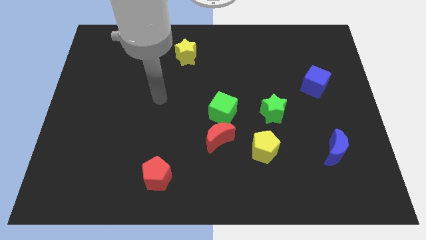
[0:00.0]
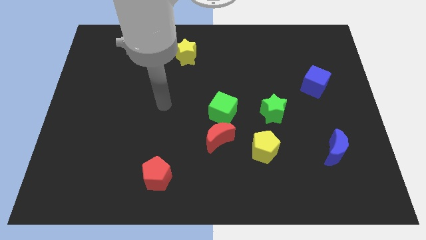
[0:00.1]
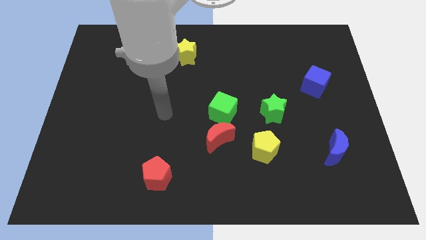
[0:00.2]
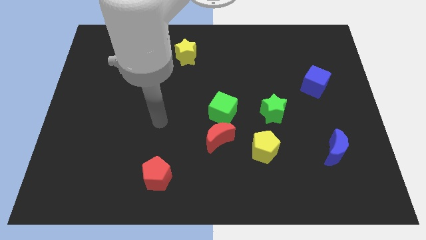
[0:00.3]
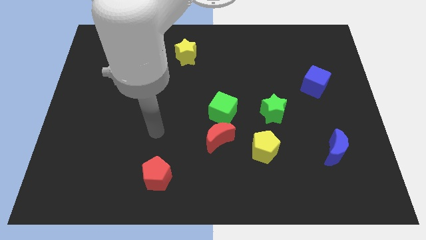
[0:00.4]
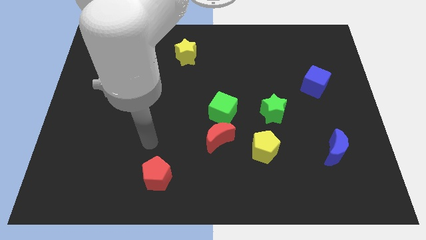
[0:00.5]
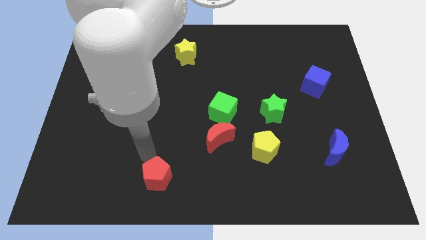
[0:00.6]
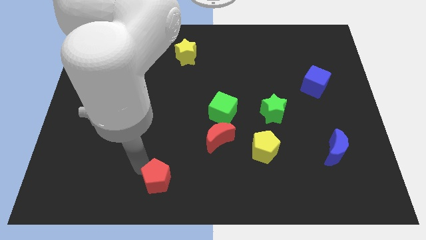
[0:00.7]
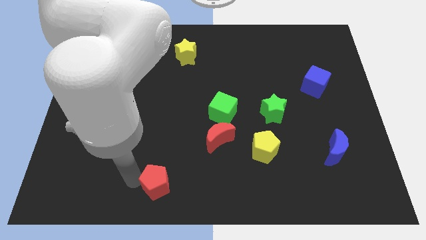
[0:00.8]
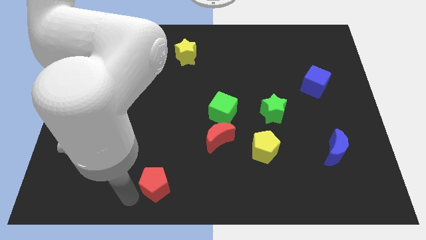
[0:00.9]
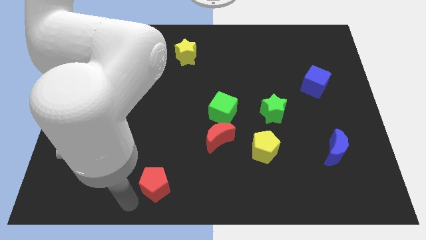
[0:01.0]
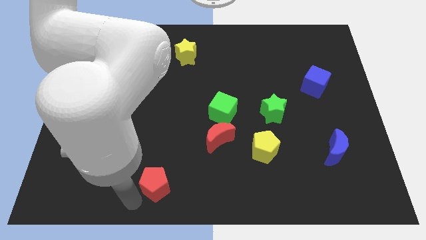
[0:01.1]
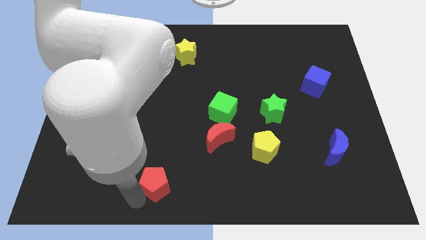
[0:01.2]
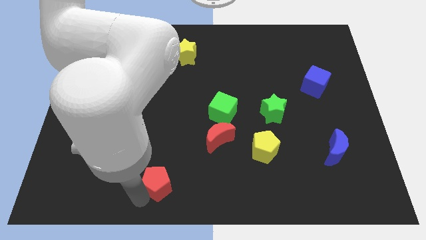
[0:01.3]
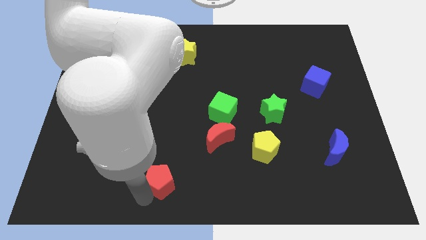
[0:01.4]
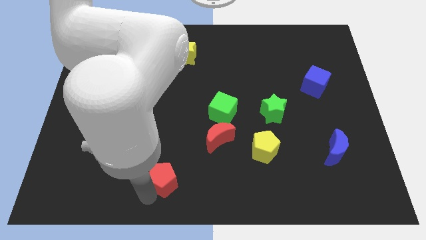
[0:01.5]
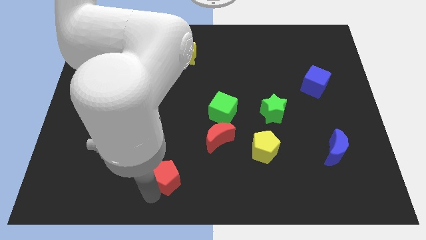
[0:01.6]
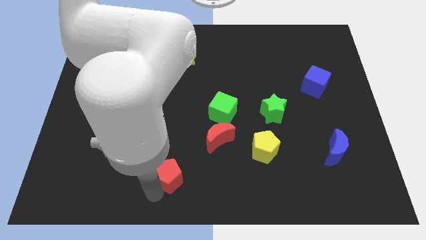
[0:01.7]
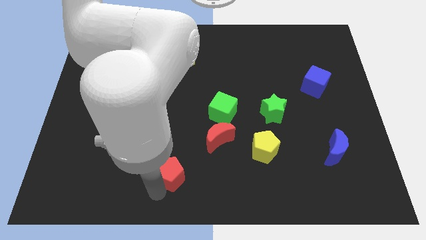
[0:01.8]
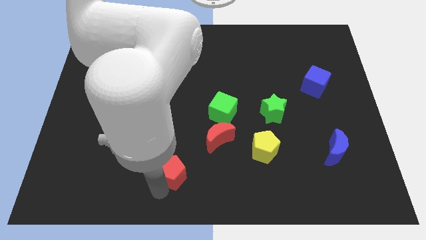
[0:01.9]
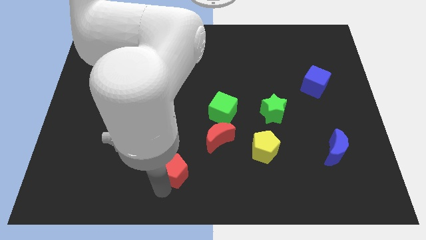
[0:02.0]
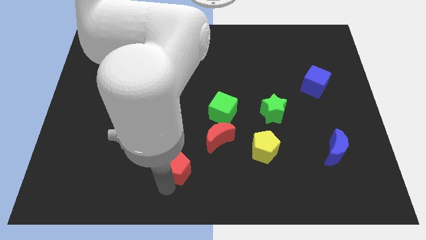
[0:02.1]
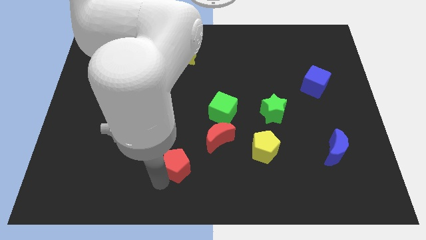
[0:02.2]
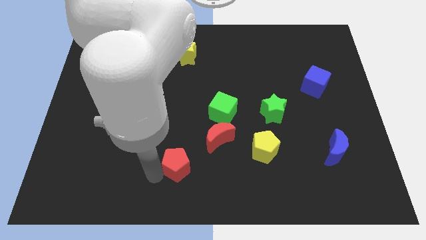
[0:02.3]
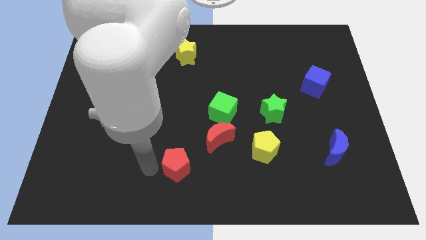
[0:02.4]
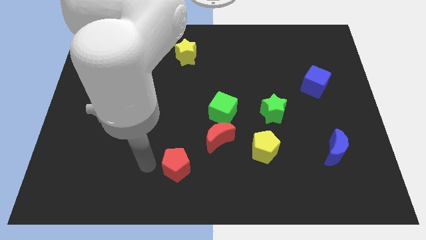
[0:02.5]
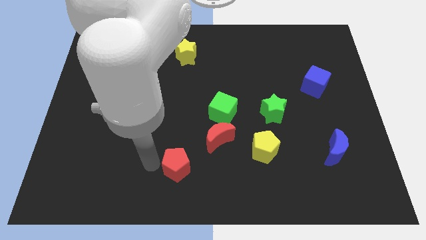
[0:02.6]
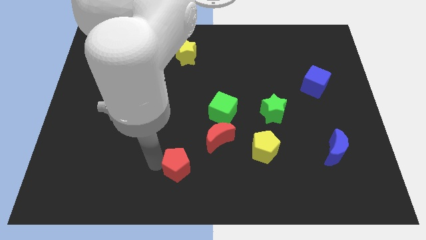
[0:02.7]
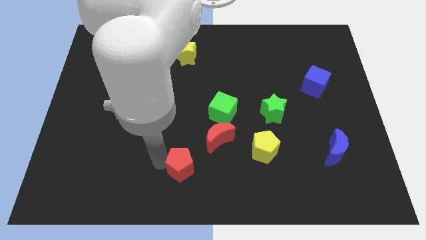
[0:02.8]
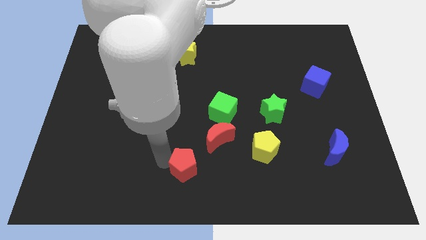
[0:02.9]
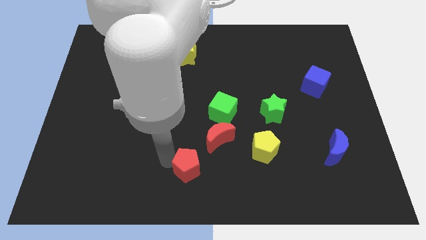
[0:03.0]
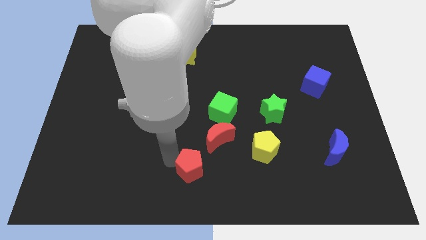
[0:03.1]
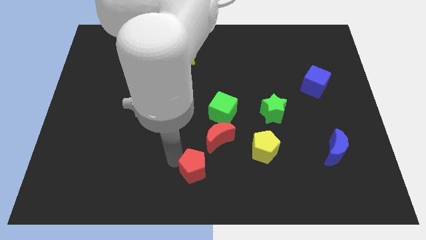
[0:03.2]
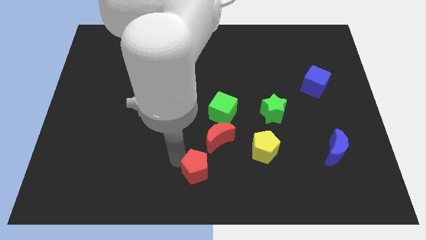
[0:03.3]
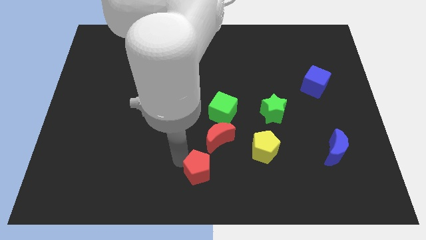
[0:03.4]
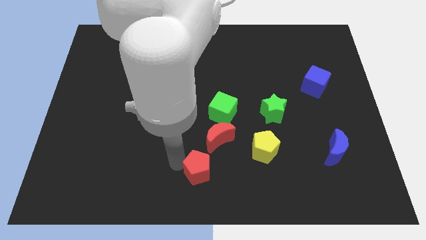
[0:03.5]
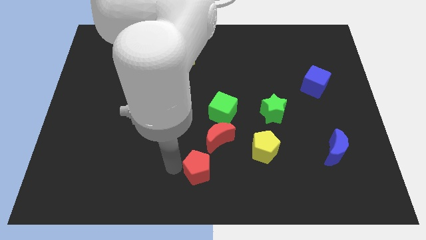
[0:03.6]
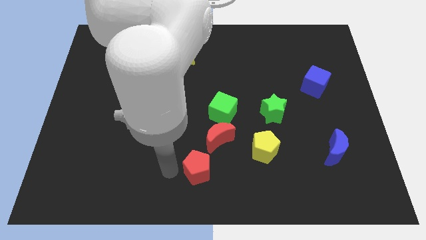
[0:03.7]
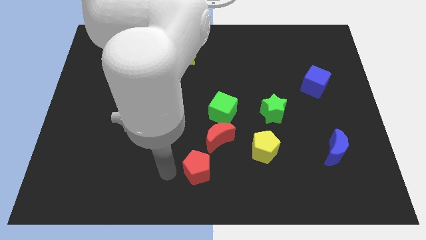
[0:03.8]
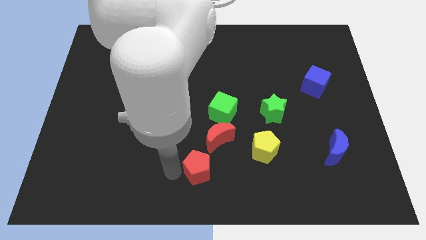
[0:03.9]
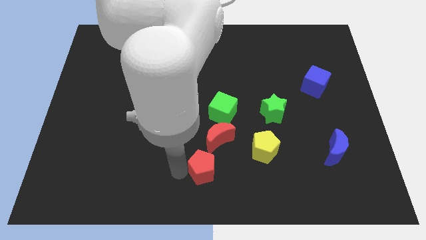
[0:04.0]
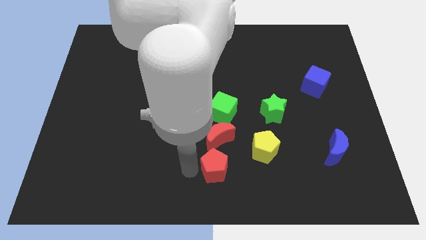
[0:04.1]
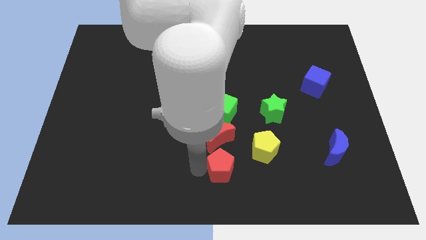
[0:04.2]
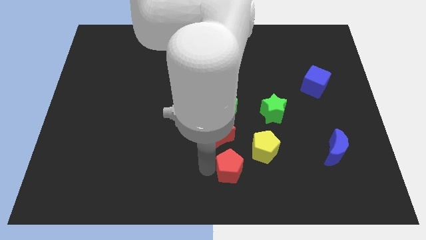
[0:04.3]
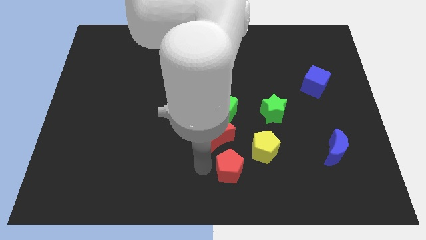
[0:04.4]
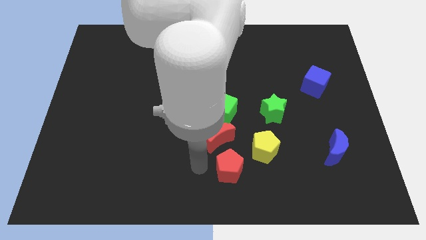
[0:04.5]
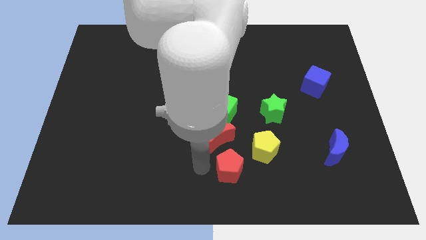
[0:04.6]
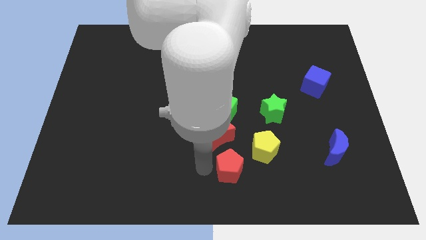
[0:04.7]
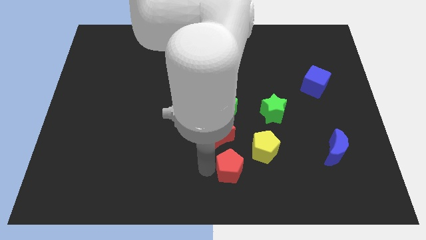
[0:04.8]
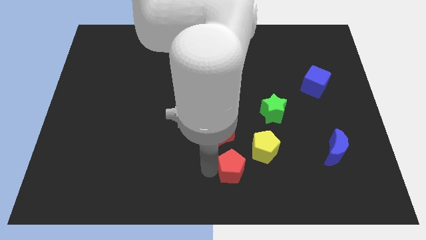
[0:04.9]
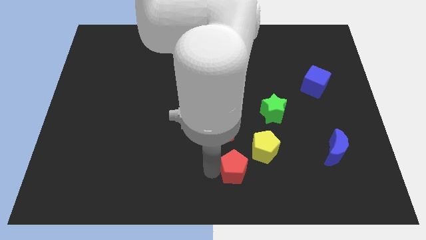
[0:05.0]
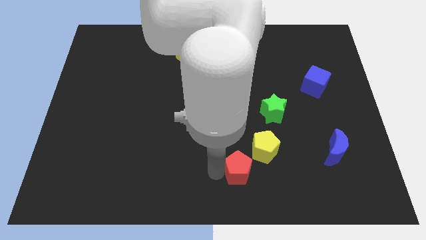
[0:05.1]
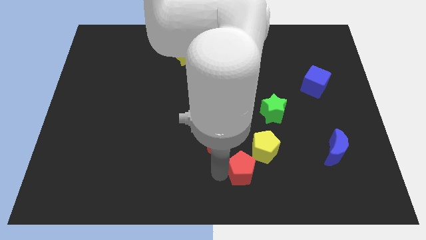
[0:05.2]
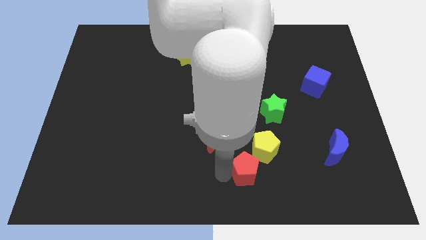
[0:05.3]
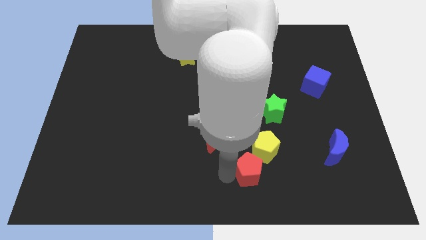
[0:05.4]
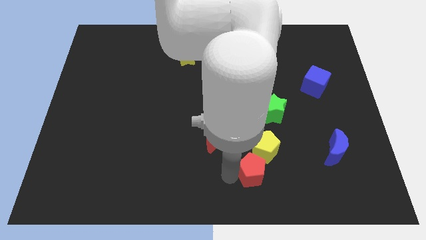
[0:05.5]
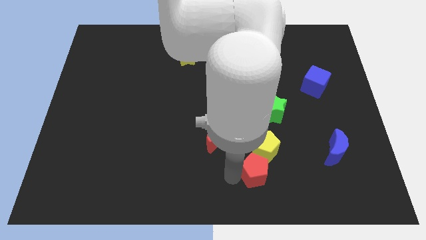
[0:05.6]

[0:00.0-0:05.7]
move the red pentagon right

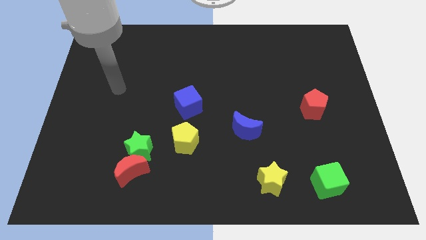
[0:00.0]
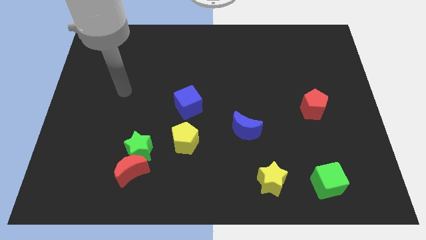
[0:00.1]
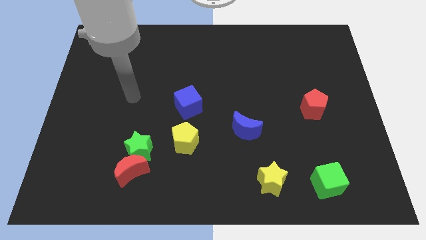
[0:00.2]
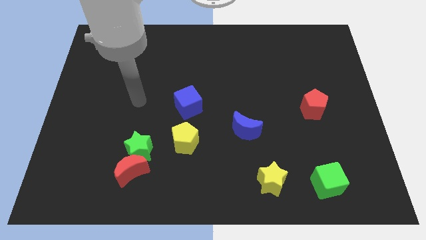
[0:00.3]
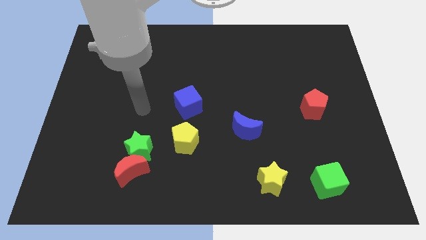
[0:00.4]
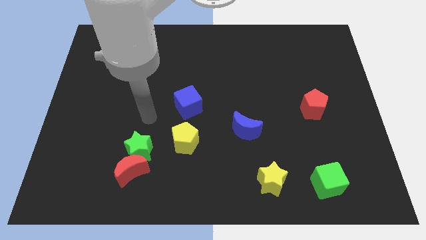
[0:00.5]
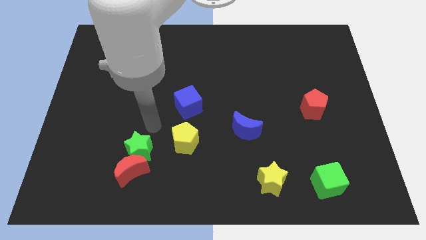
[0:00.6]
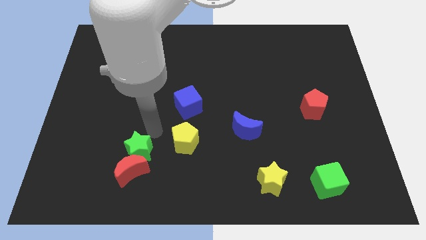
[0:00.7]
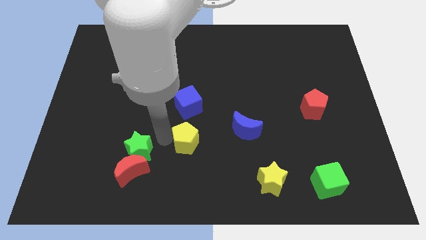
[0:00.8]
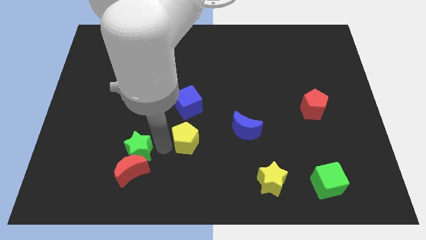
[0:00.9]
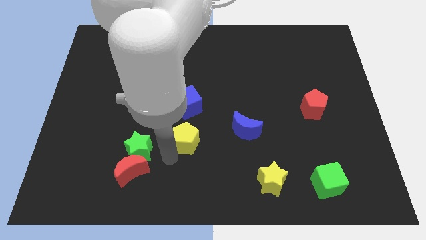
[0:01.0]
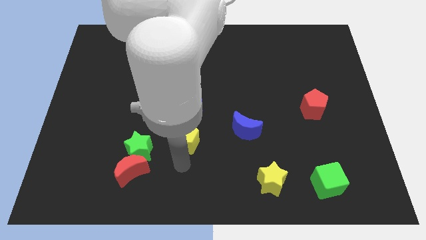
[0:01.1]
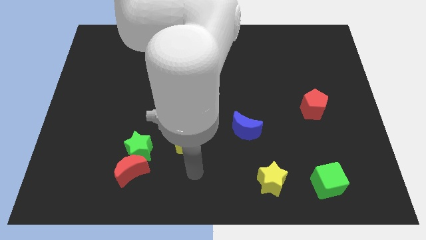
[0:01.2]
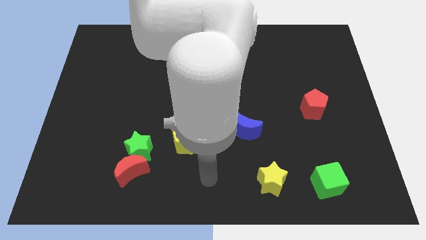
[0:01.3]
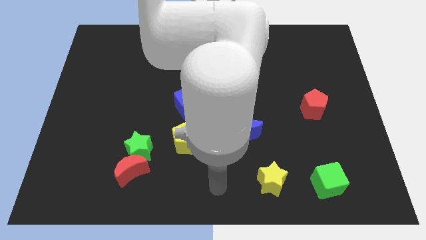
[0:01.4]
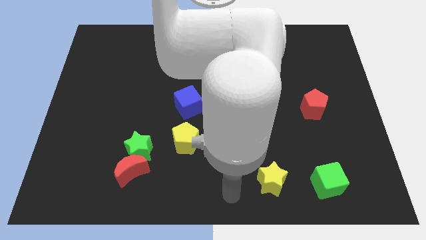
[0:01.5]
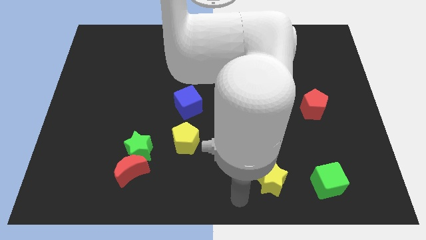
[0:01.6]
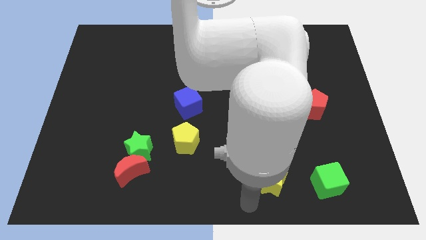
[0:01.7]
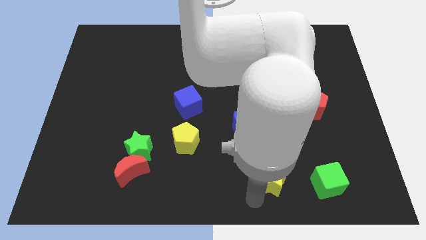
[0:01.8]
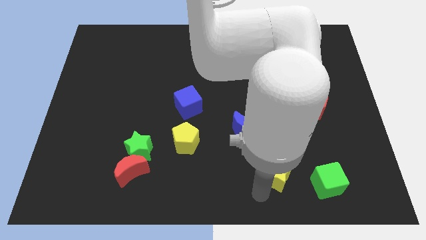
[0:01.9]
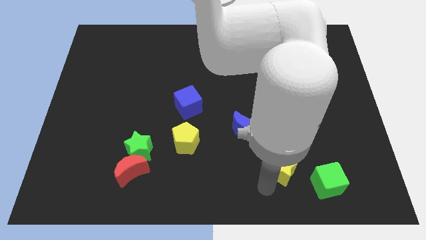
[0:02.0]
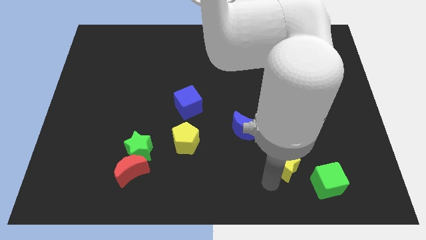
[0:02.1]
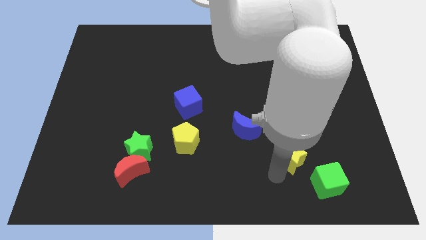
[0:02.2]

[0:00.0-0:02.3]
push the yellow star somewhat up and to the right
